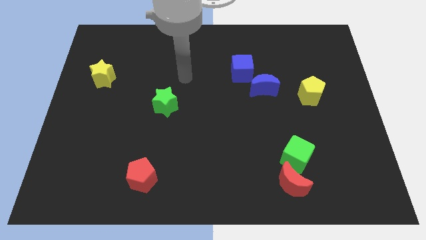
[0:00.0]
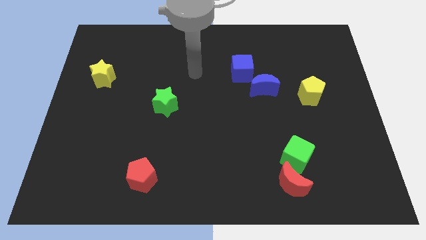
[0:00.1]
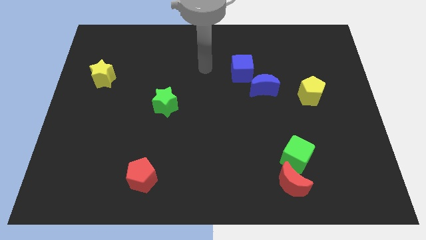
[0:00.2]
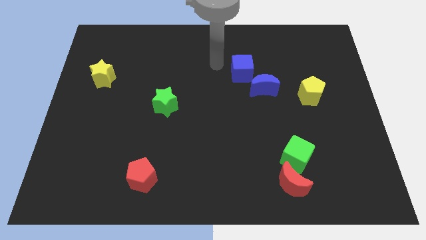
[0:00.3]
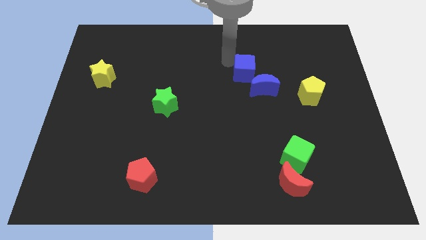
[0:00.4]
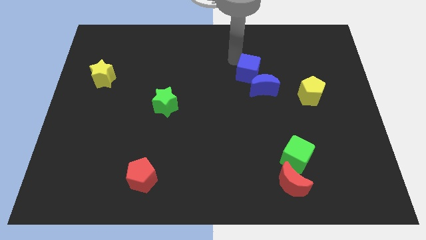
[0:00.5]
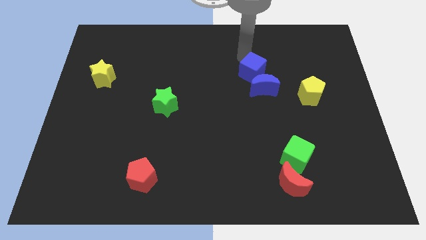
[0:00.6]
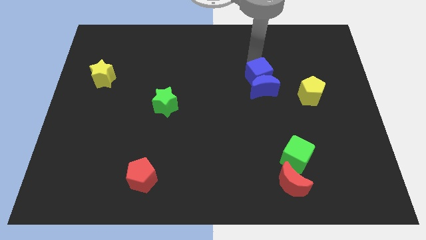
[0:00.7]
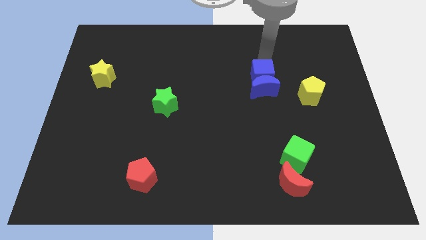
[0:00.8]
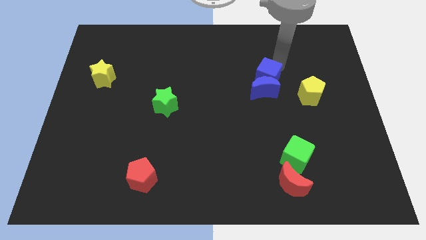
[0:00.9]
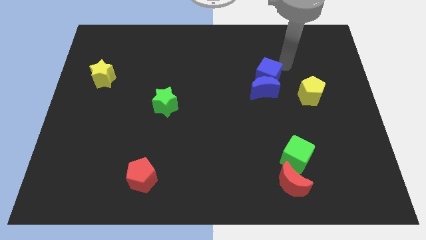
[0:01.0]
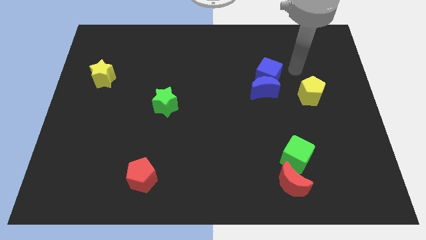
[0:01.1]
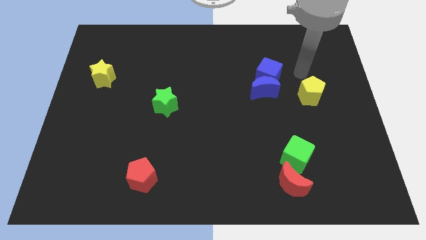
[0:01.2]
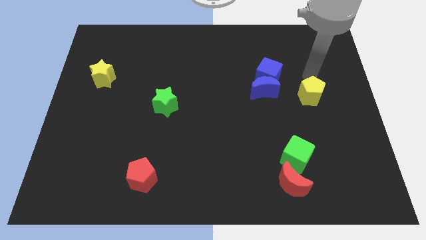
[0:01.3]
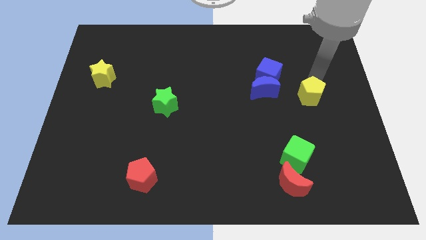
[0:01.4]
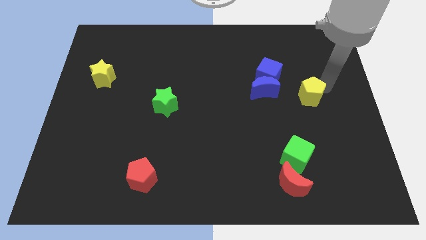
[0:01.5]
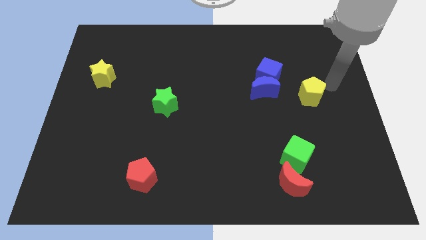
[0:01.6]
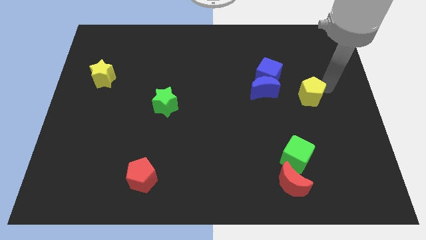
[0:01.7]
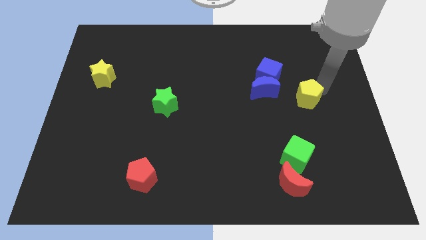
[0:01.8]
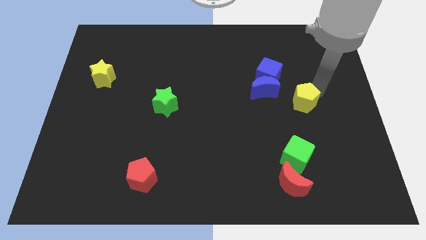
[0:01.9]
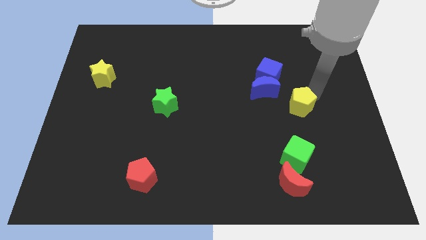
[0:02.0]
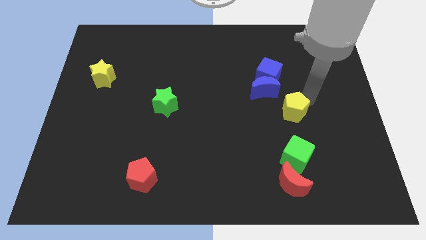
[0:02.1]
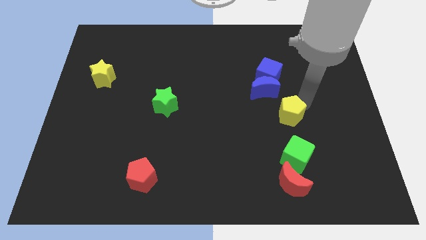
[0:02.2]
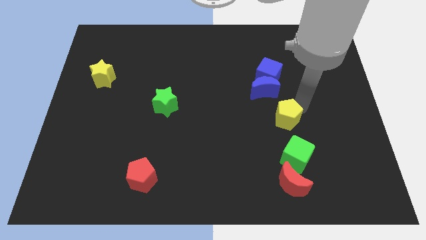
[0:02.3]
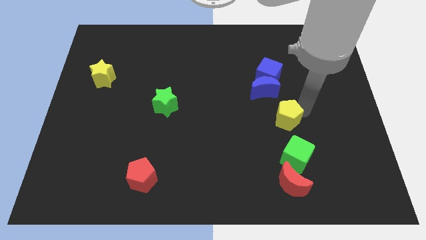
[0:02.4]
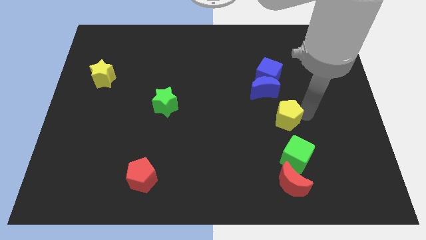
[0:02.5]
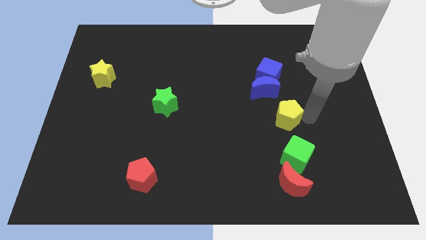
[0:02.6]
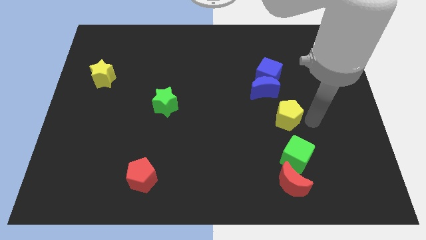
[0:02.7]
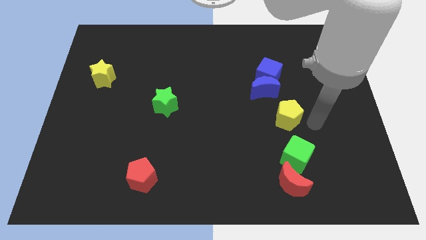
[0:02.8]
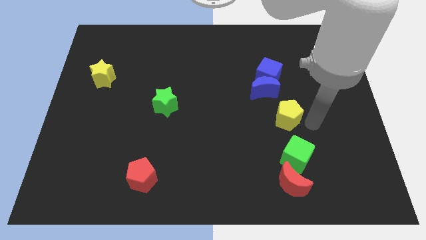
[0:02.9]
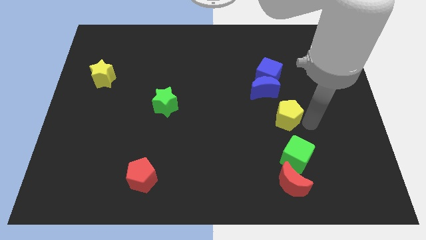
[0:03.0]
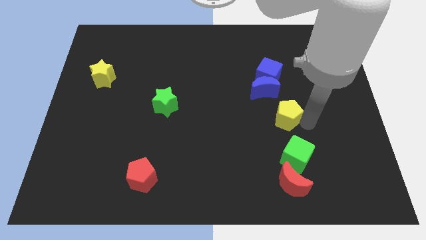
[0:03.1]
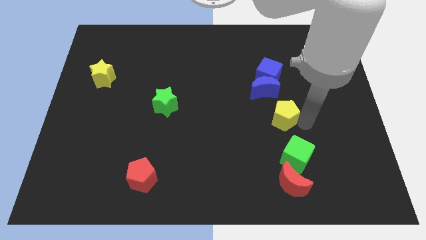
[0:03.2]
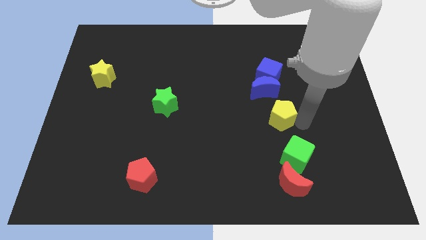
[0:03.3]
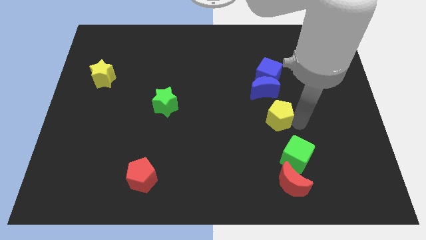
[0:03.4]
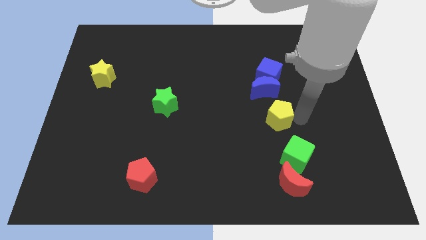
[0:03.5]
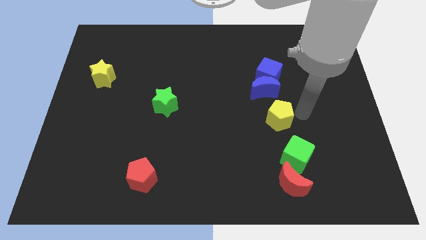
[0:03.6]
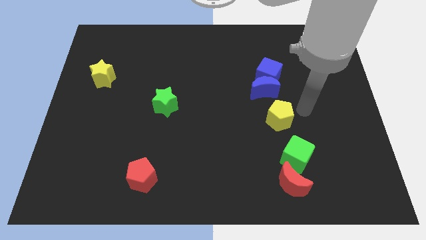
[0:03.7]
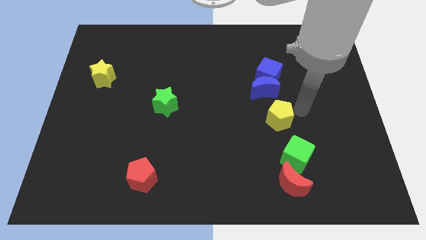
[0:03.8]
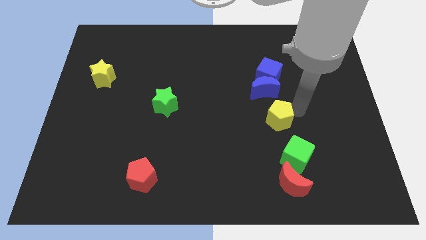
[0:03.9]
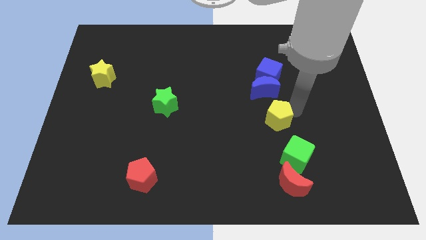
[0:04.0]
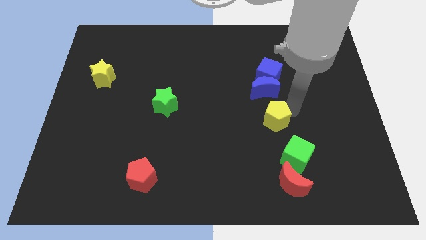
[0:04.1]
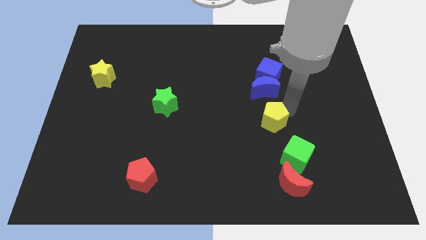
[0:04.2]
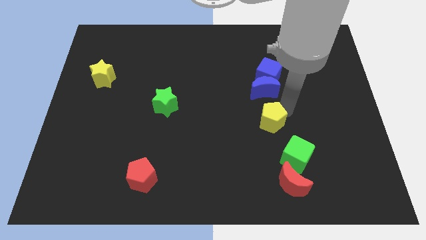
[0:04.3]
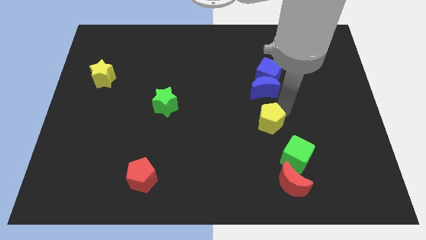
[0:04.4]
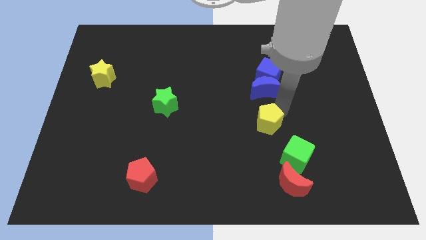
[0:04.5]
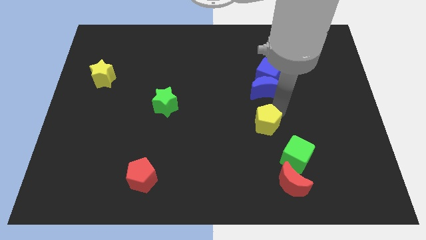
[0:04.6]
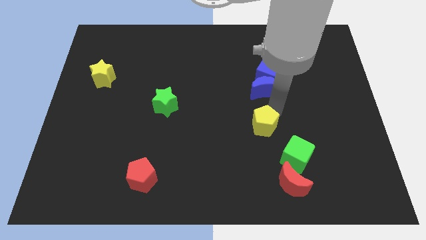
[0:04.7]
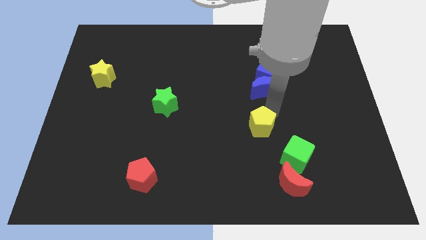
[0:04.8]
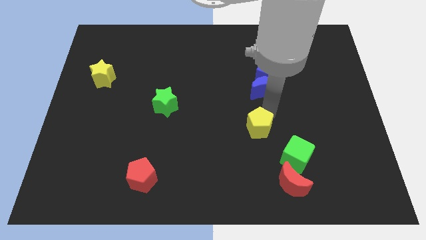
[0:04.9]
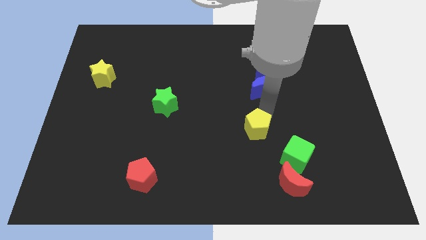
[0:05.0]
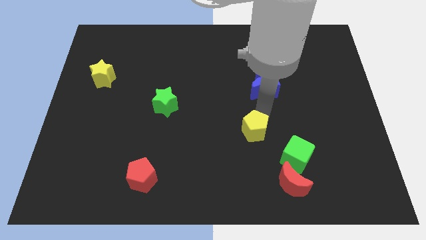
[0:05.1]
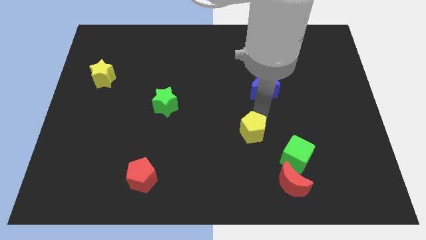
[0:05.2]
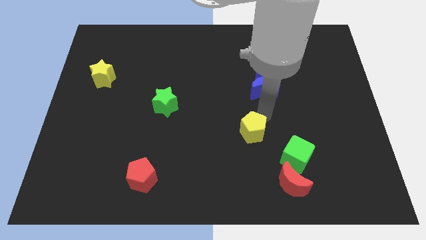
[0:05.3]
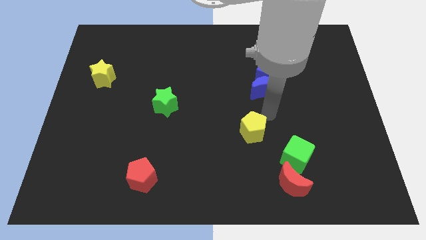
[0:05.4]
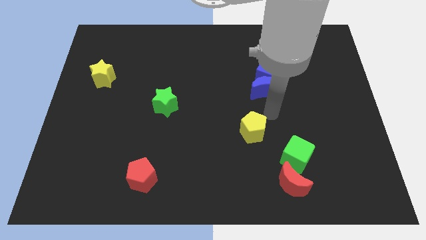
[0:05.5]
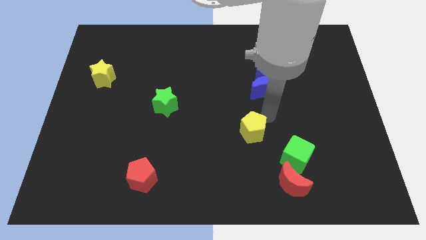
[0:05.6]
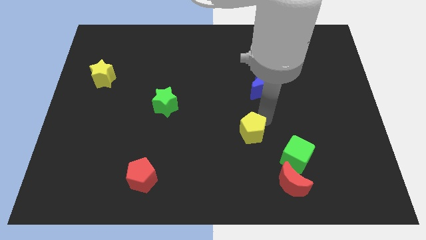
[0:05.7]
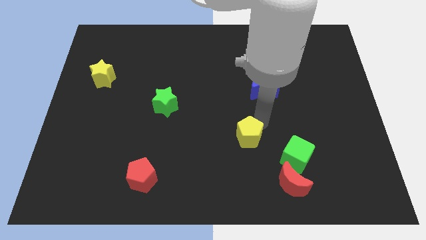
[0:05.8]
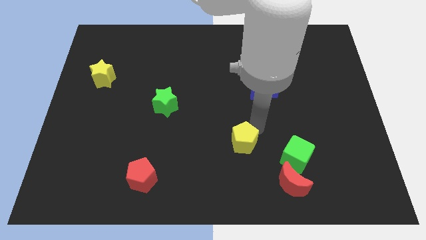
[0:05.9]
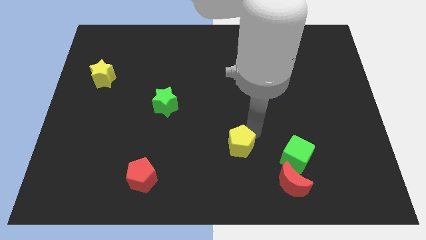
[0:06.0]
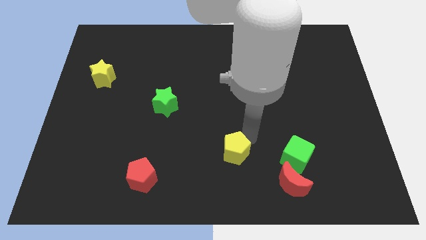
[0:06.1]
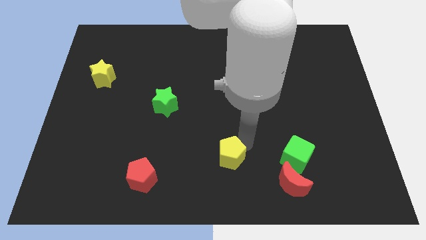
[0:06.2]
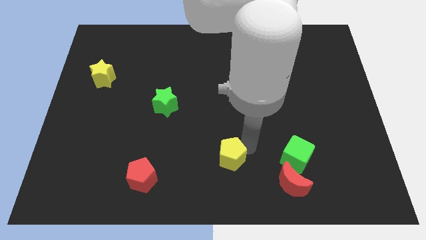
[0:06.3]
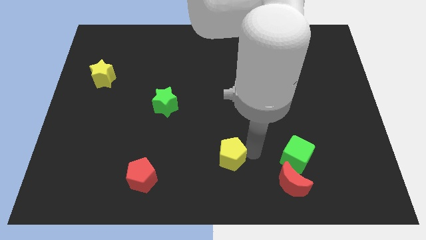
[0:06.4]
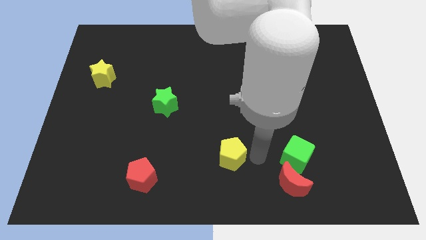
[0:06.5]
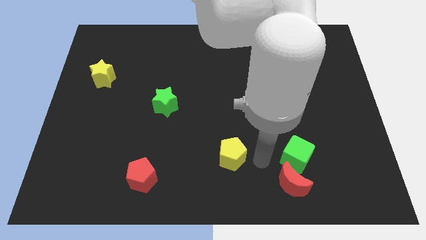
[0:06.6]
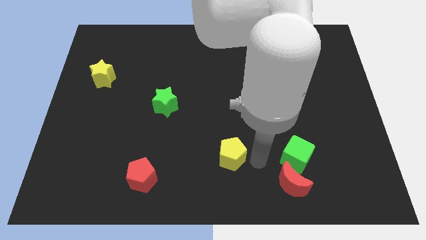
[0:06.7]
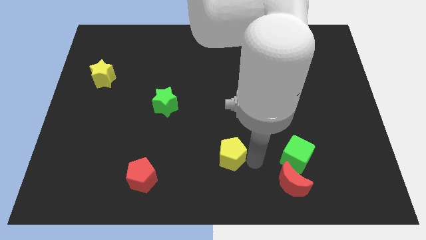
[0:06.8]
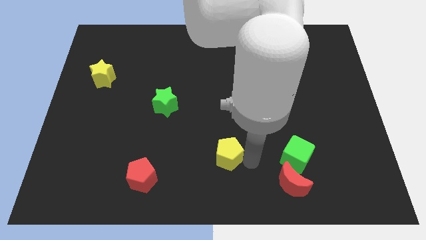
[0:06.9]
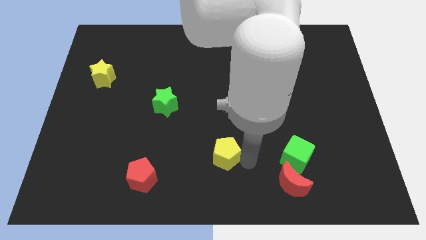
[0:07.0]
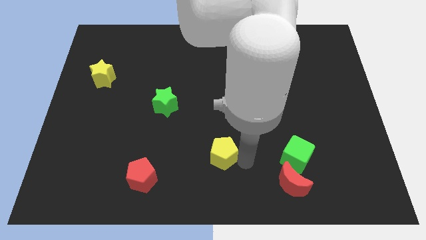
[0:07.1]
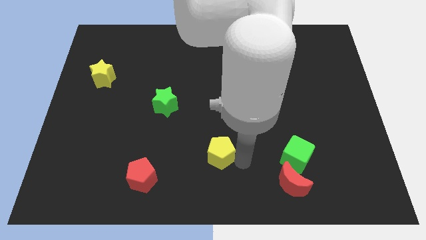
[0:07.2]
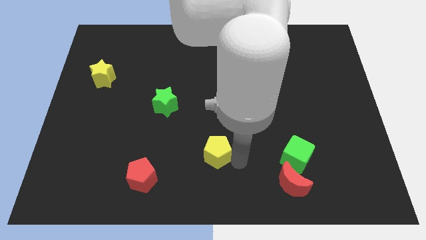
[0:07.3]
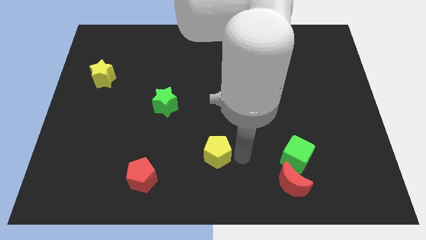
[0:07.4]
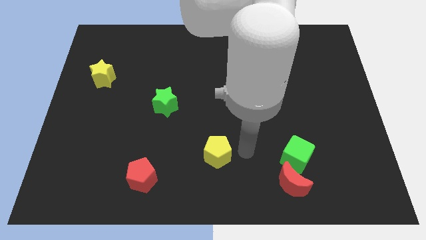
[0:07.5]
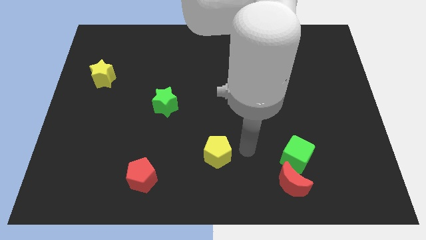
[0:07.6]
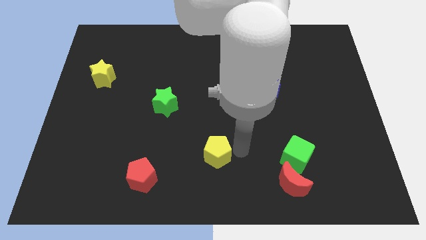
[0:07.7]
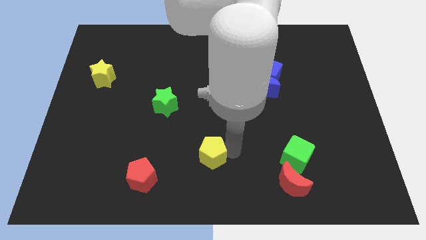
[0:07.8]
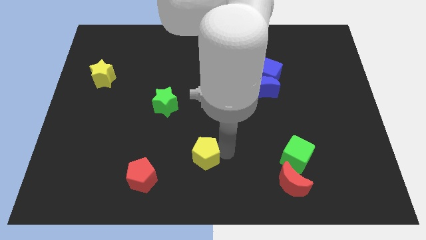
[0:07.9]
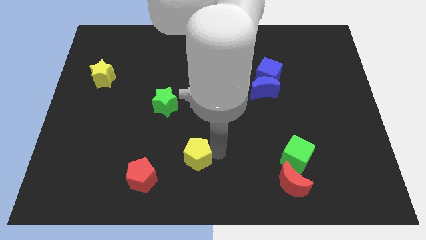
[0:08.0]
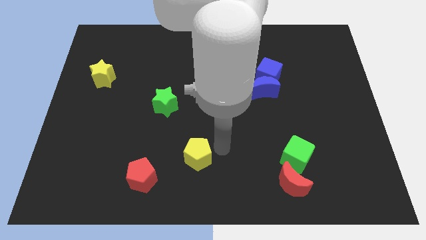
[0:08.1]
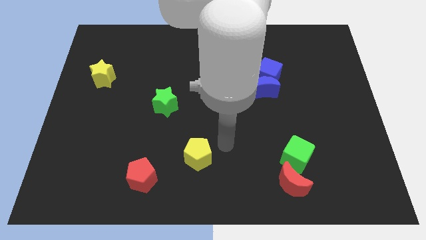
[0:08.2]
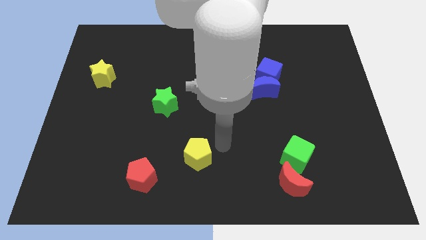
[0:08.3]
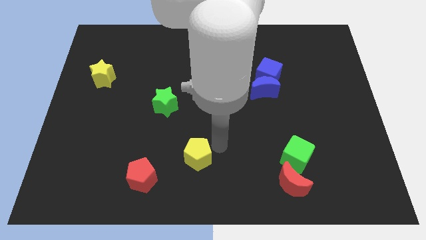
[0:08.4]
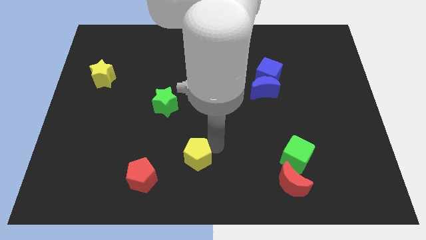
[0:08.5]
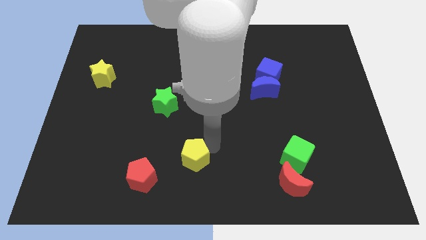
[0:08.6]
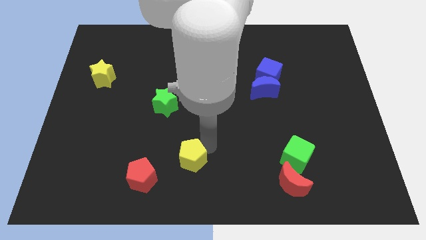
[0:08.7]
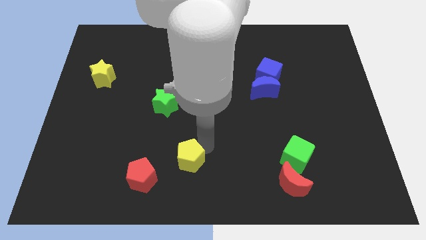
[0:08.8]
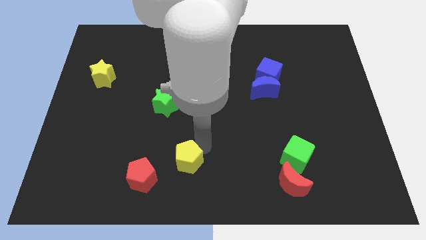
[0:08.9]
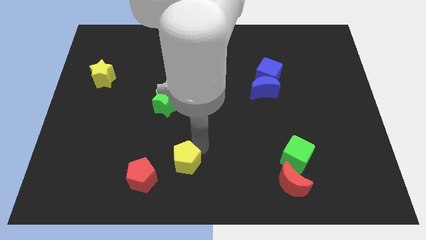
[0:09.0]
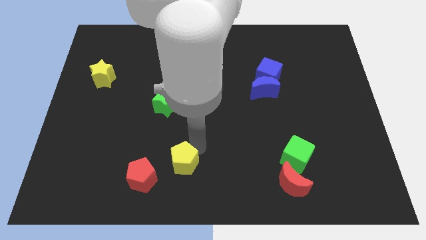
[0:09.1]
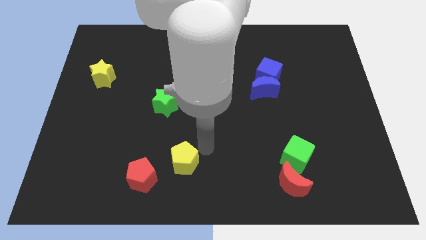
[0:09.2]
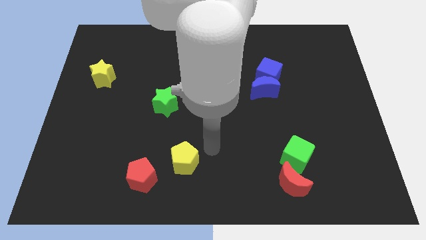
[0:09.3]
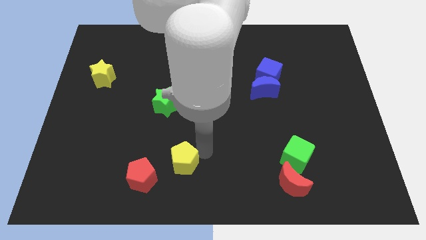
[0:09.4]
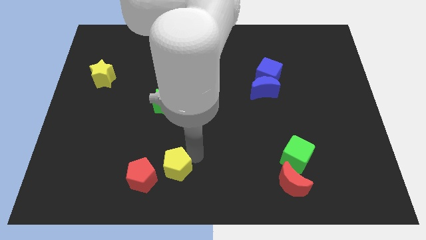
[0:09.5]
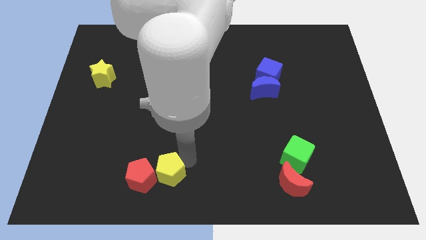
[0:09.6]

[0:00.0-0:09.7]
slide the yellow pentagon to the red pentagon
